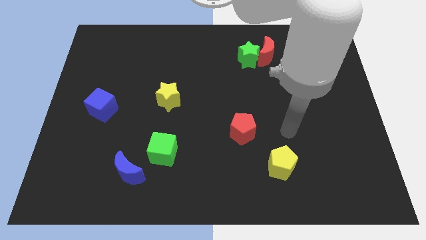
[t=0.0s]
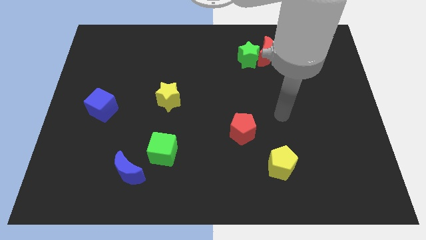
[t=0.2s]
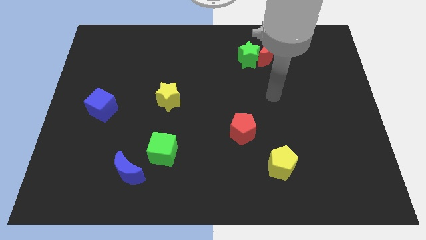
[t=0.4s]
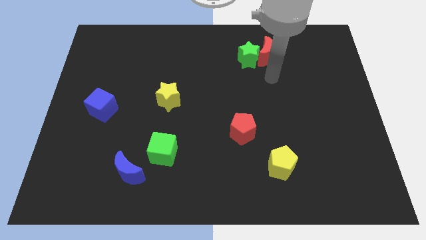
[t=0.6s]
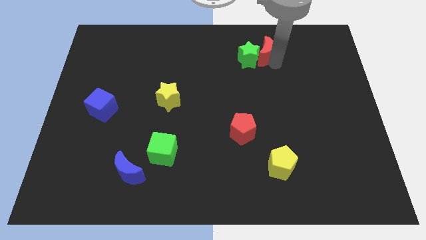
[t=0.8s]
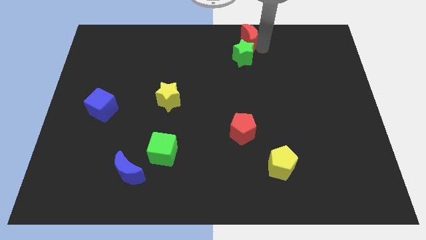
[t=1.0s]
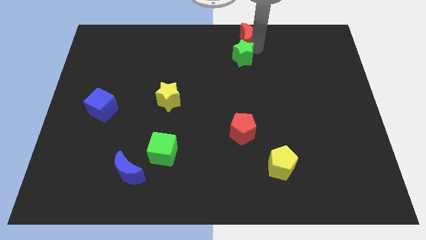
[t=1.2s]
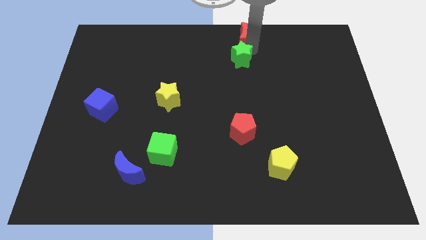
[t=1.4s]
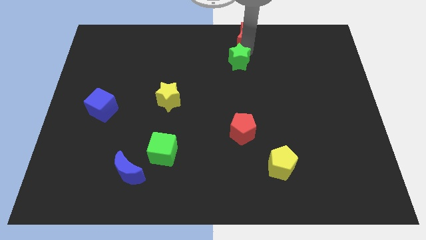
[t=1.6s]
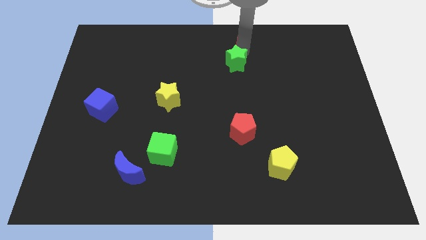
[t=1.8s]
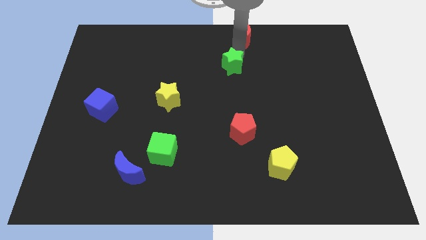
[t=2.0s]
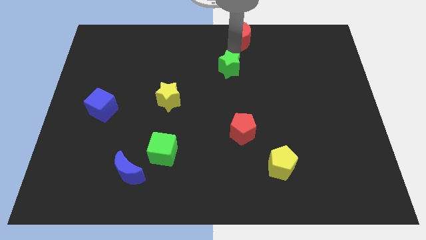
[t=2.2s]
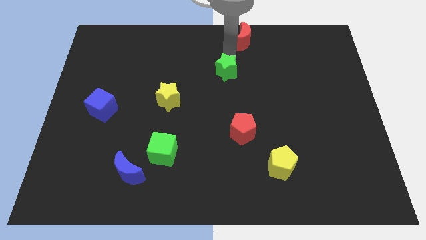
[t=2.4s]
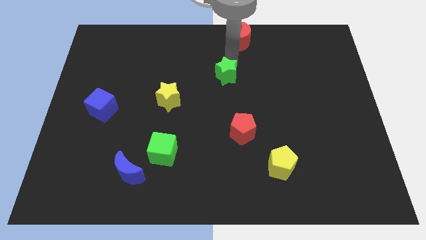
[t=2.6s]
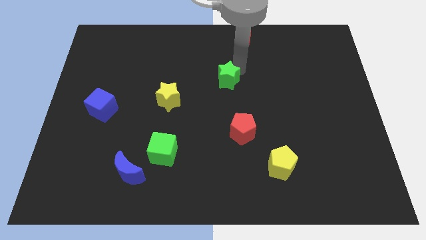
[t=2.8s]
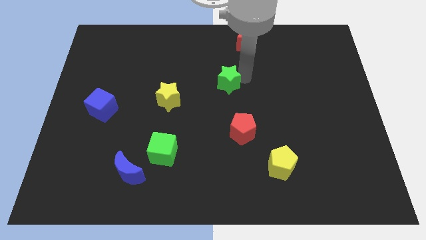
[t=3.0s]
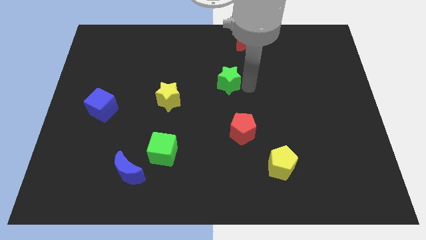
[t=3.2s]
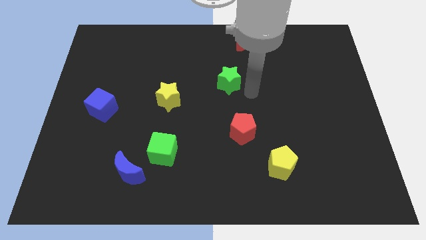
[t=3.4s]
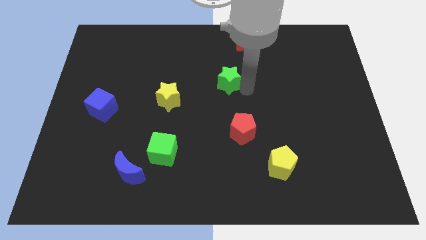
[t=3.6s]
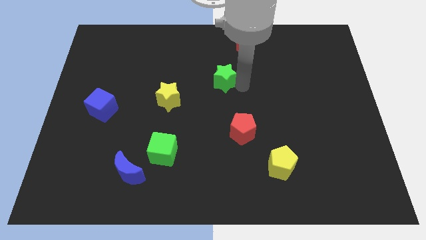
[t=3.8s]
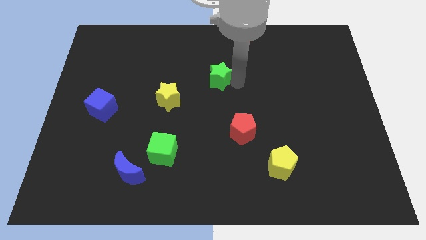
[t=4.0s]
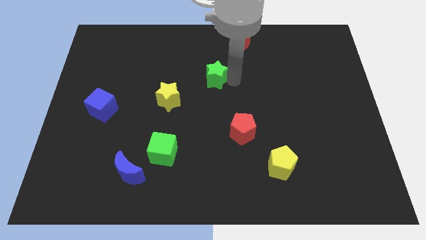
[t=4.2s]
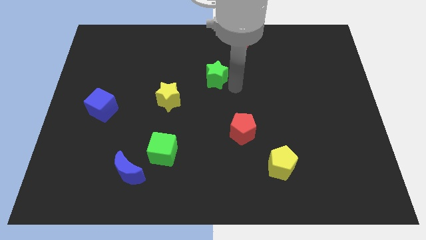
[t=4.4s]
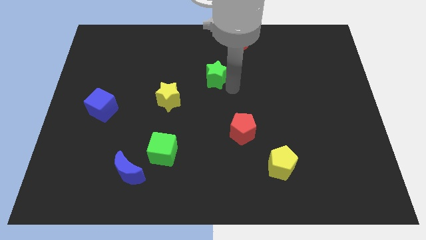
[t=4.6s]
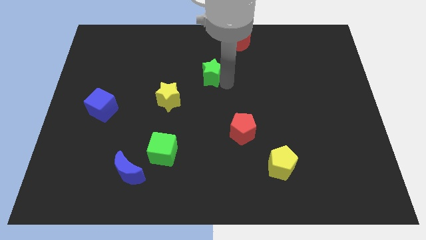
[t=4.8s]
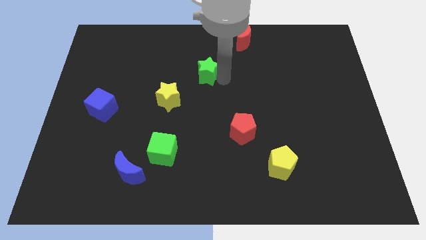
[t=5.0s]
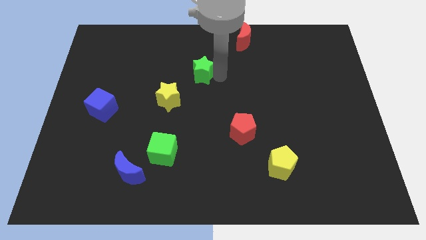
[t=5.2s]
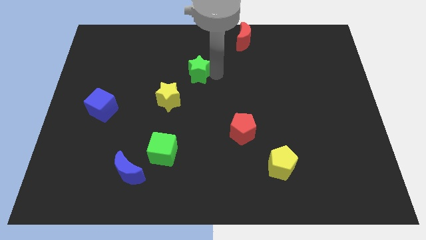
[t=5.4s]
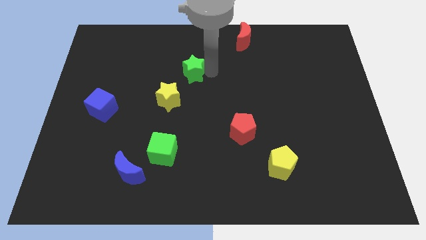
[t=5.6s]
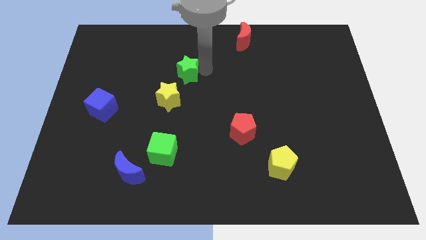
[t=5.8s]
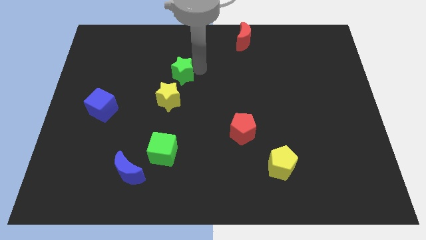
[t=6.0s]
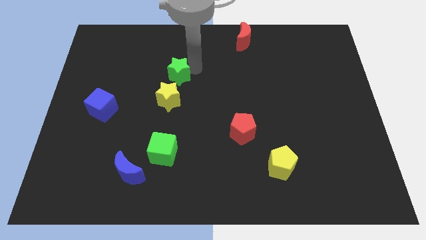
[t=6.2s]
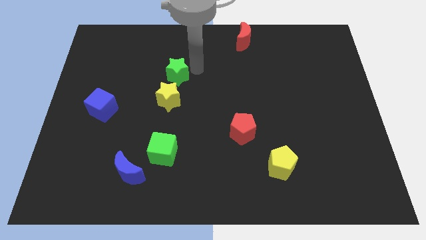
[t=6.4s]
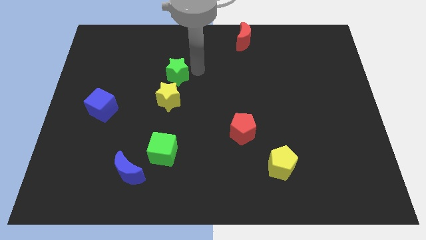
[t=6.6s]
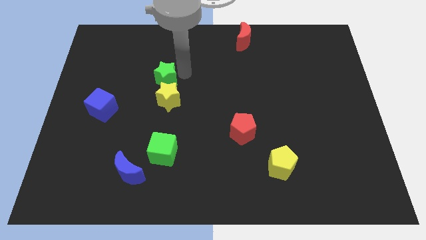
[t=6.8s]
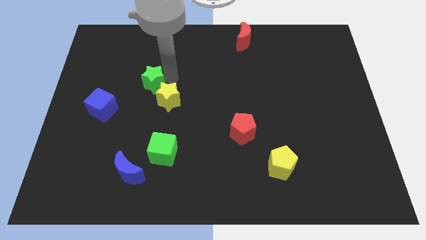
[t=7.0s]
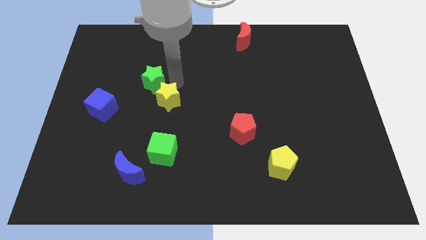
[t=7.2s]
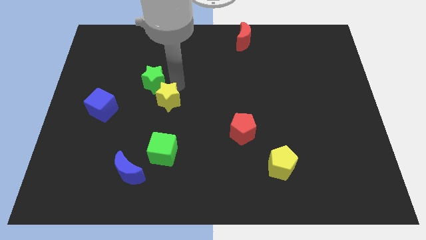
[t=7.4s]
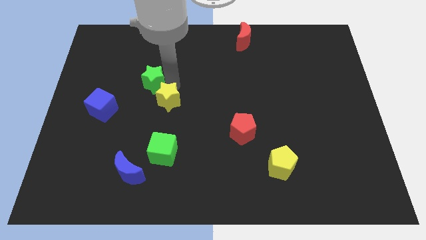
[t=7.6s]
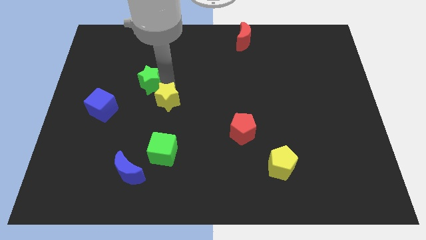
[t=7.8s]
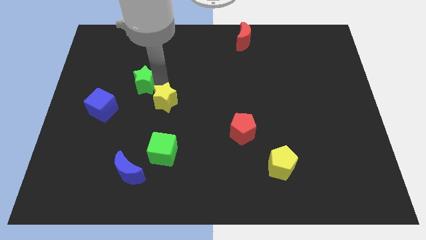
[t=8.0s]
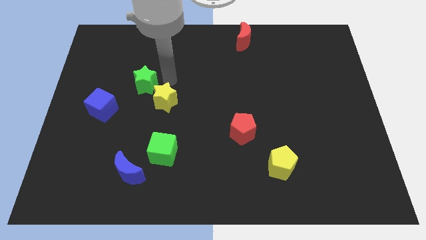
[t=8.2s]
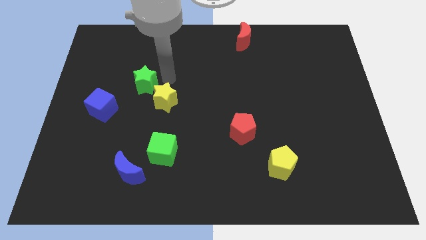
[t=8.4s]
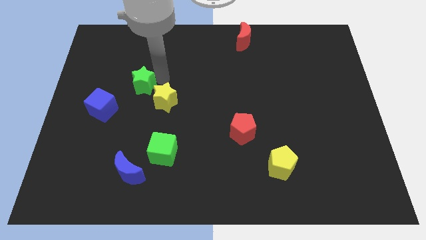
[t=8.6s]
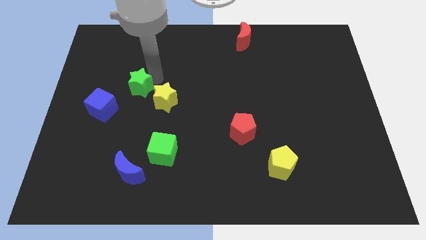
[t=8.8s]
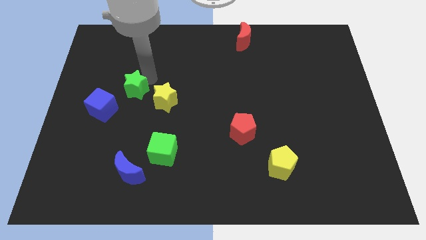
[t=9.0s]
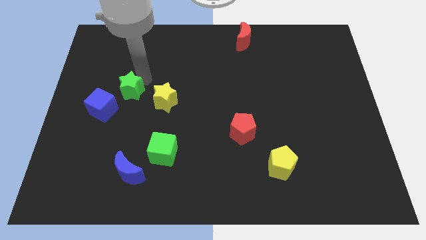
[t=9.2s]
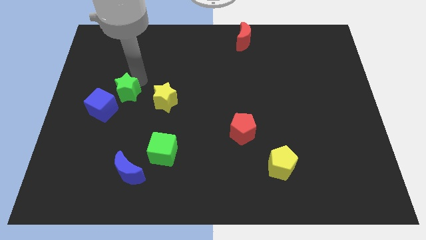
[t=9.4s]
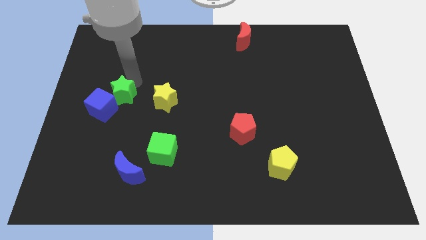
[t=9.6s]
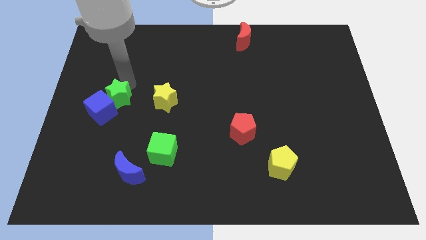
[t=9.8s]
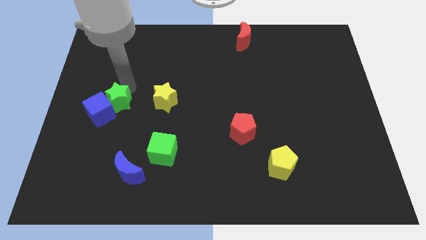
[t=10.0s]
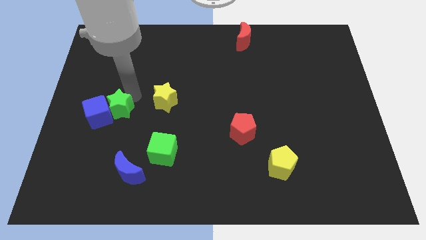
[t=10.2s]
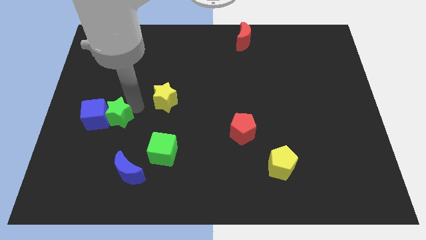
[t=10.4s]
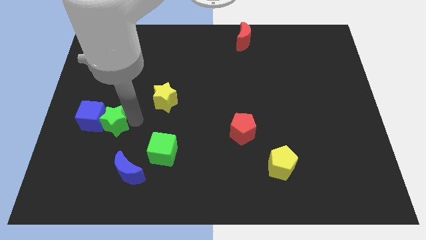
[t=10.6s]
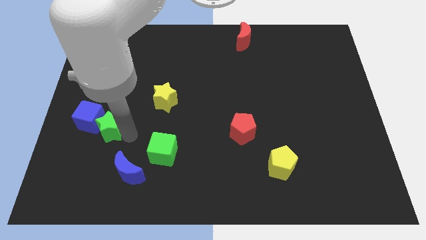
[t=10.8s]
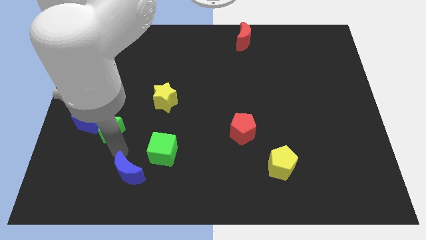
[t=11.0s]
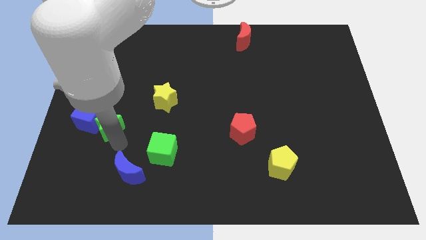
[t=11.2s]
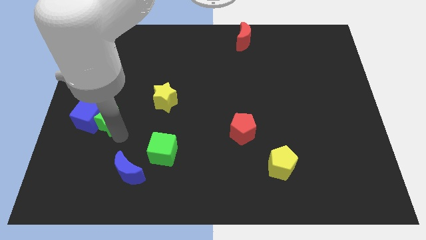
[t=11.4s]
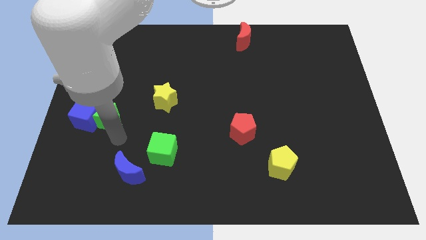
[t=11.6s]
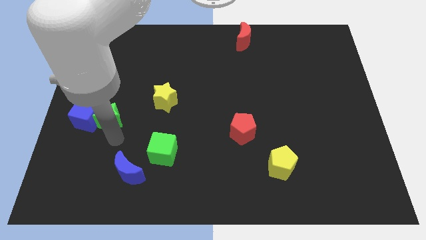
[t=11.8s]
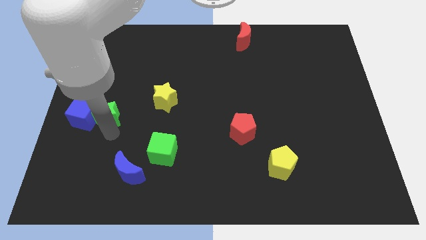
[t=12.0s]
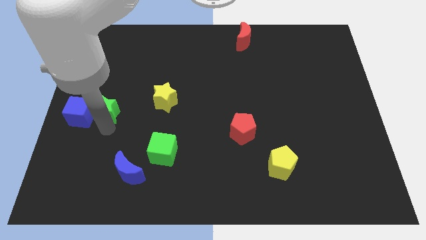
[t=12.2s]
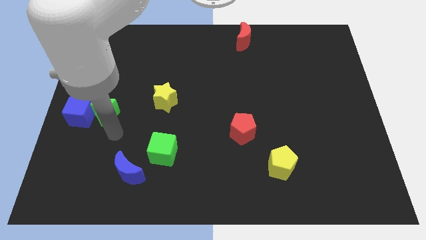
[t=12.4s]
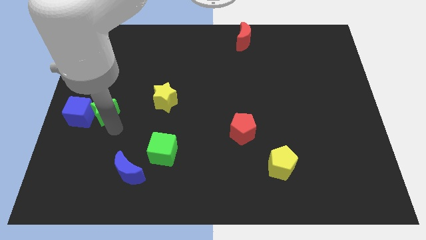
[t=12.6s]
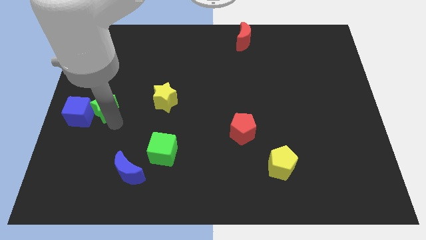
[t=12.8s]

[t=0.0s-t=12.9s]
move the green star to the center left
